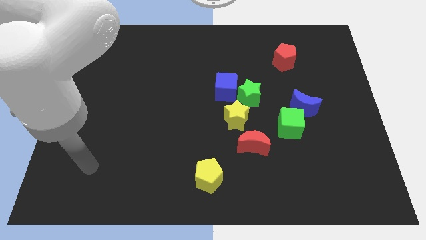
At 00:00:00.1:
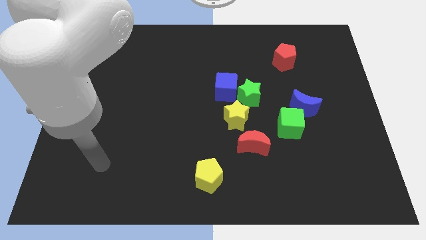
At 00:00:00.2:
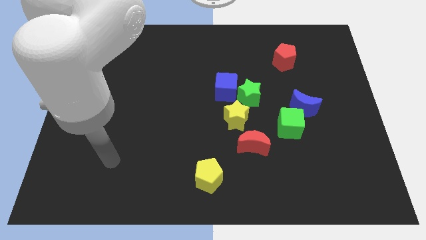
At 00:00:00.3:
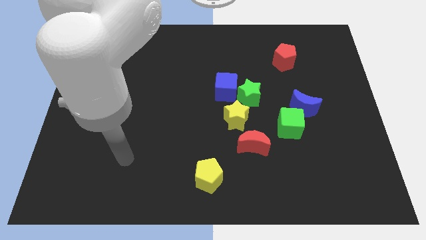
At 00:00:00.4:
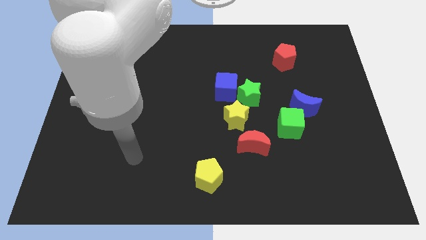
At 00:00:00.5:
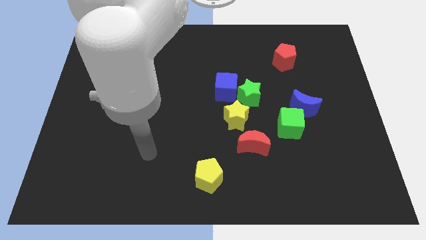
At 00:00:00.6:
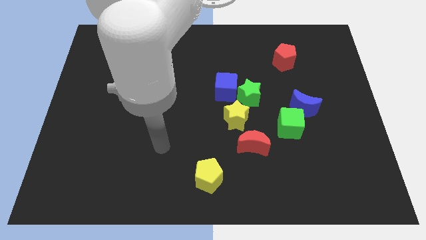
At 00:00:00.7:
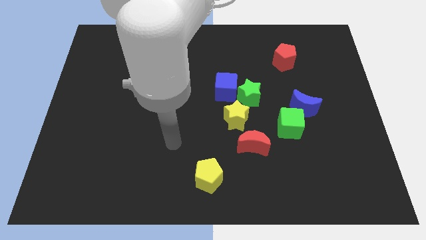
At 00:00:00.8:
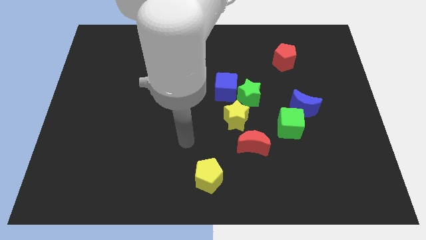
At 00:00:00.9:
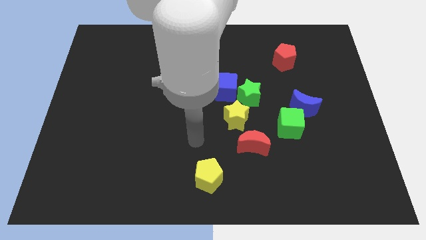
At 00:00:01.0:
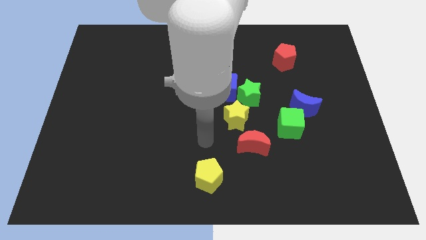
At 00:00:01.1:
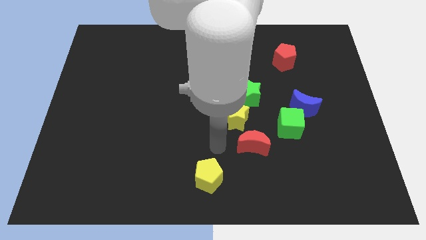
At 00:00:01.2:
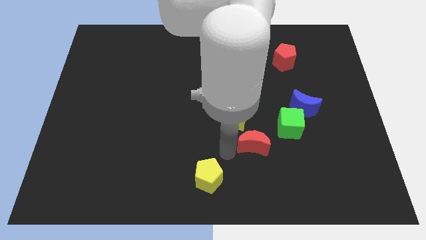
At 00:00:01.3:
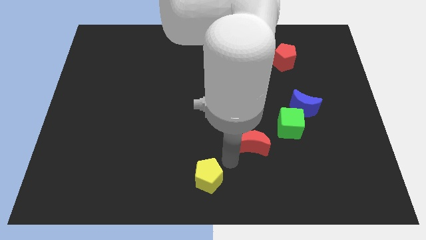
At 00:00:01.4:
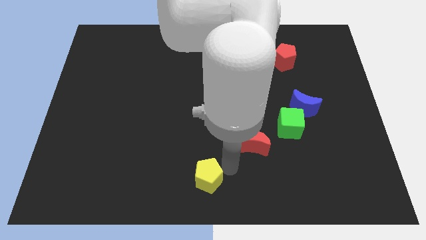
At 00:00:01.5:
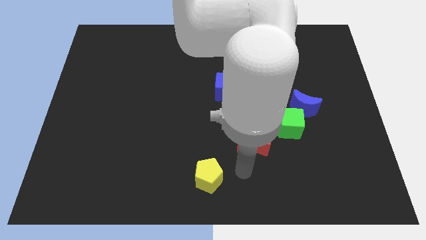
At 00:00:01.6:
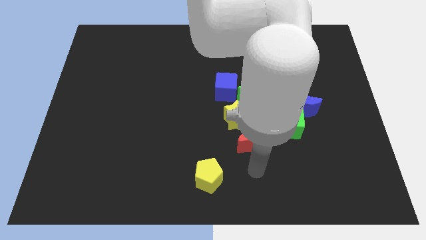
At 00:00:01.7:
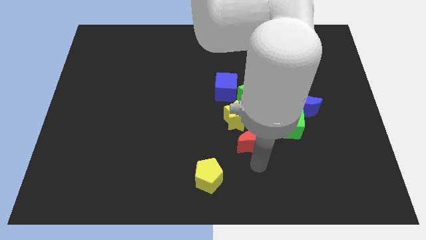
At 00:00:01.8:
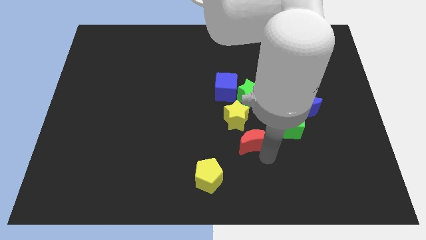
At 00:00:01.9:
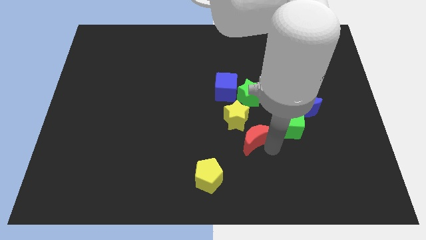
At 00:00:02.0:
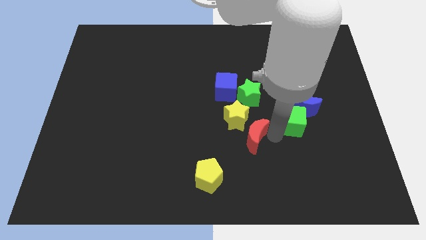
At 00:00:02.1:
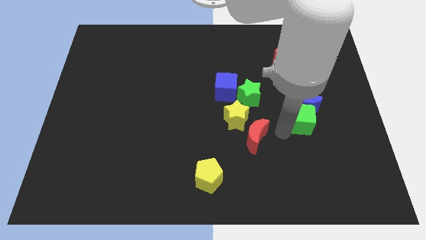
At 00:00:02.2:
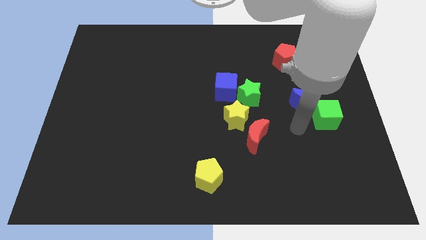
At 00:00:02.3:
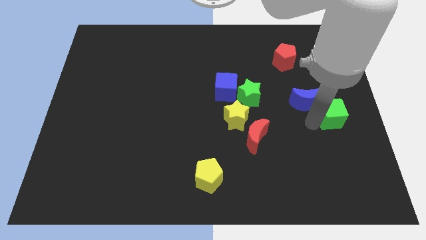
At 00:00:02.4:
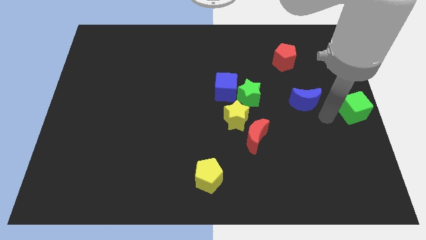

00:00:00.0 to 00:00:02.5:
separate the blue moon from the green cube

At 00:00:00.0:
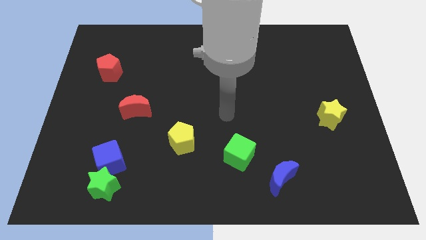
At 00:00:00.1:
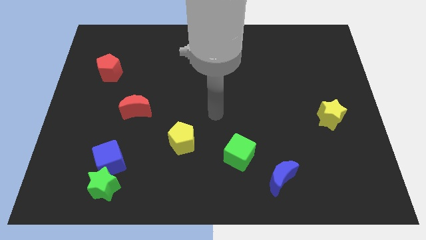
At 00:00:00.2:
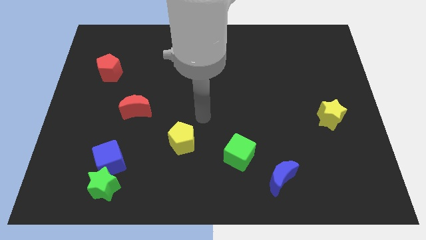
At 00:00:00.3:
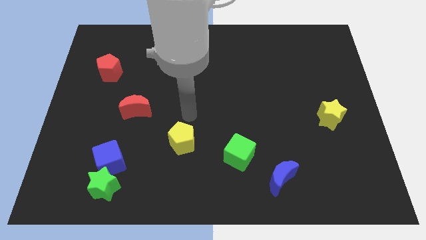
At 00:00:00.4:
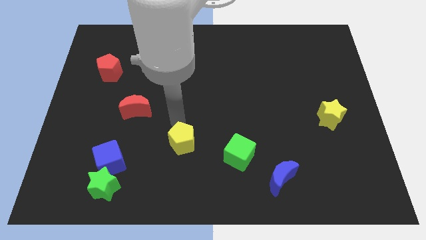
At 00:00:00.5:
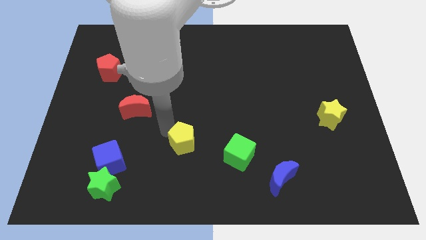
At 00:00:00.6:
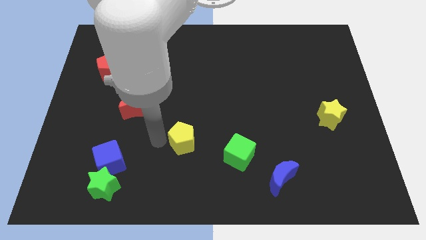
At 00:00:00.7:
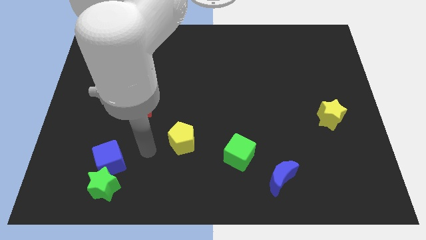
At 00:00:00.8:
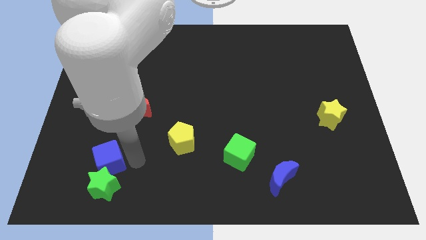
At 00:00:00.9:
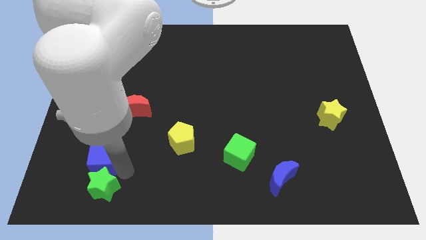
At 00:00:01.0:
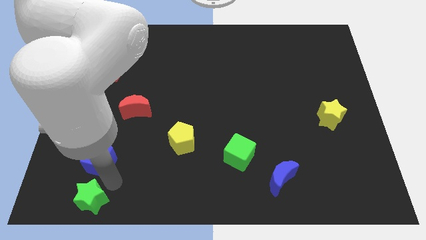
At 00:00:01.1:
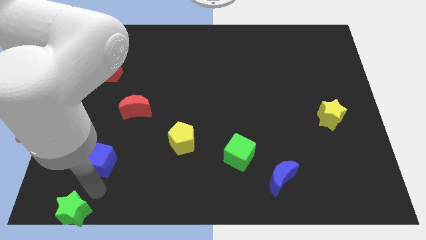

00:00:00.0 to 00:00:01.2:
move the blue cube away from the green star

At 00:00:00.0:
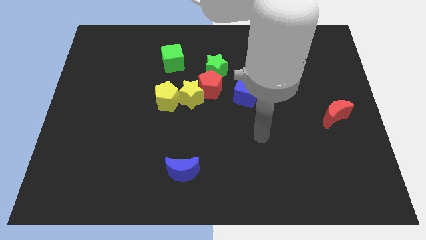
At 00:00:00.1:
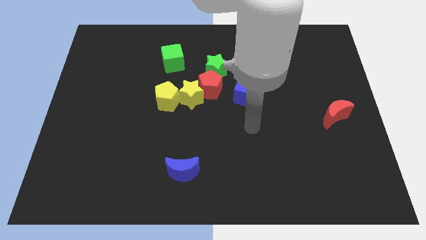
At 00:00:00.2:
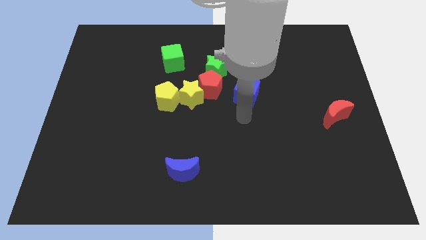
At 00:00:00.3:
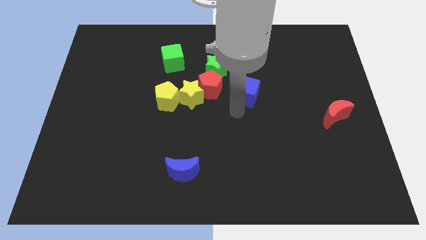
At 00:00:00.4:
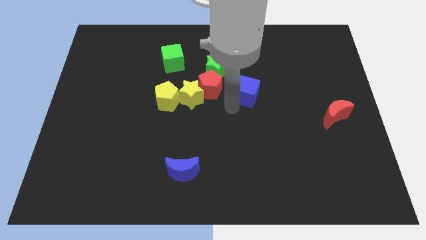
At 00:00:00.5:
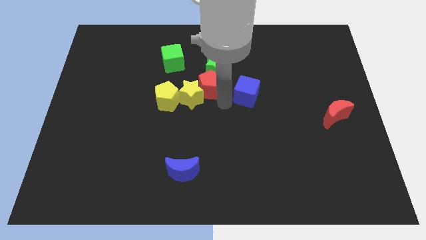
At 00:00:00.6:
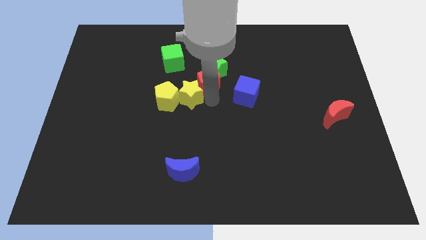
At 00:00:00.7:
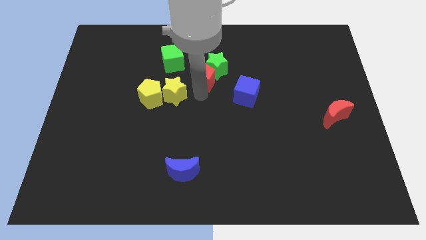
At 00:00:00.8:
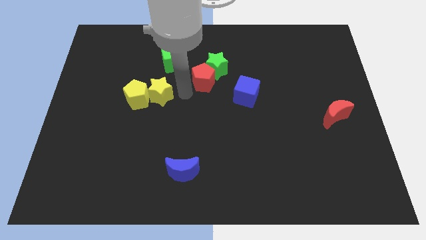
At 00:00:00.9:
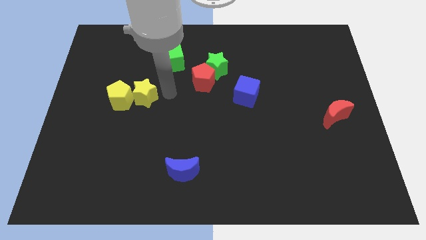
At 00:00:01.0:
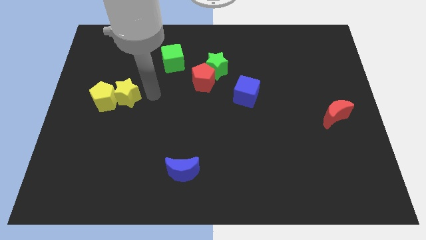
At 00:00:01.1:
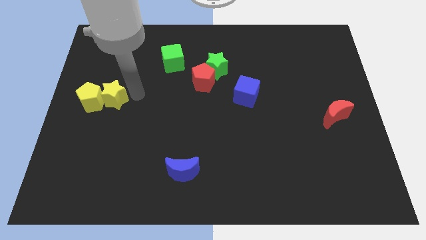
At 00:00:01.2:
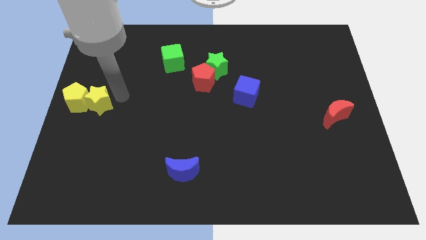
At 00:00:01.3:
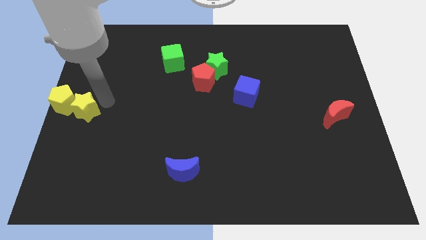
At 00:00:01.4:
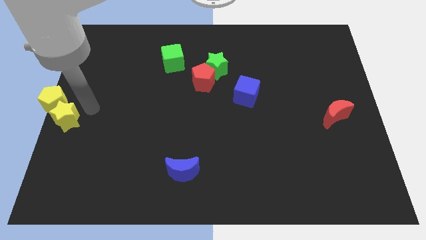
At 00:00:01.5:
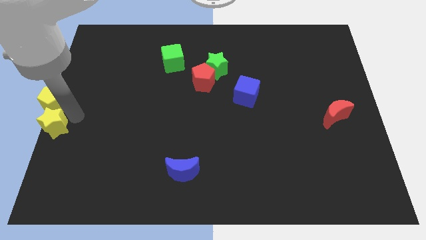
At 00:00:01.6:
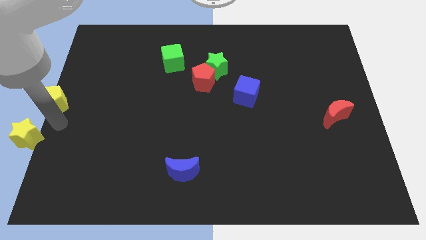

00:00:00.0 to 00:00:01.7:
separate the yellow pentagon from the yellow star

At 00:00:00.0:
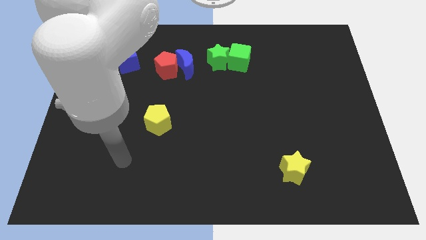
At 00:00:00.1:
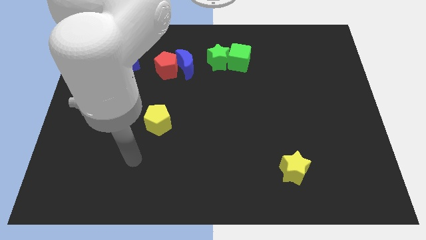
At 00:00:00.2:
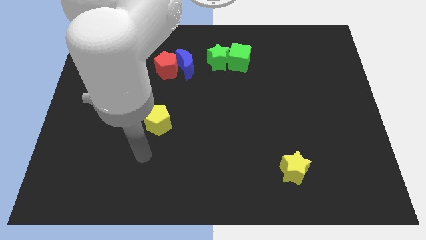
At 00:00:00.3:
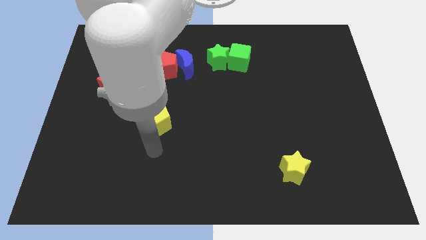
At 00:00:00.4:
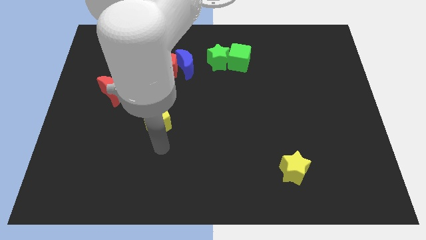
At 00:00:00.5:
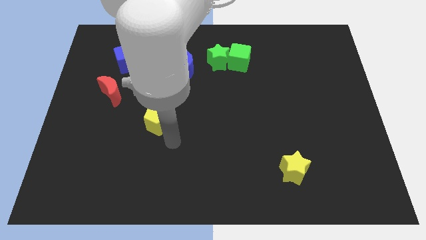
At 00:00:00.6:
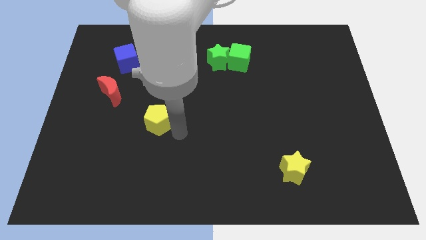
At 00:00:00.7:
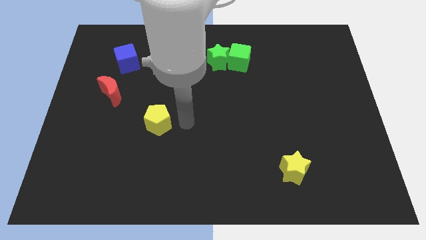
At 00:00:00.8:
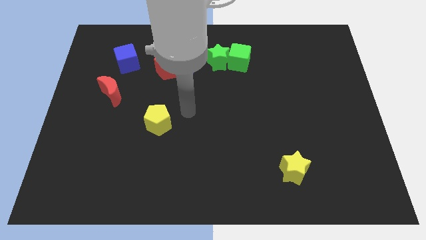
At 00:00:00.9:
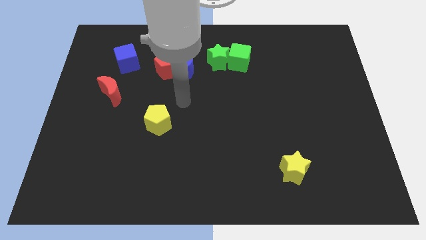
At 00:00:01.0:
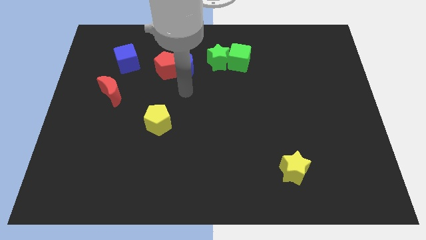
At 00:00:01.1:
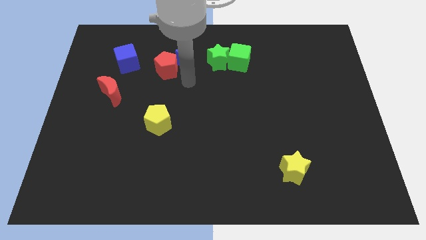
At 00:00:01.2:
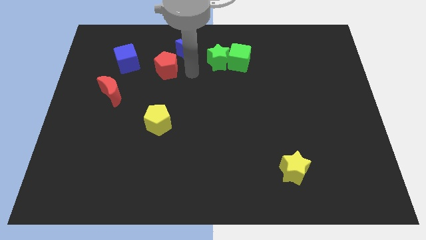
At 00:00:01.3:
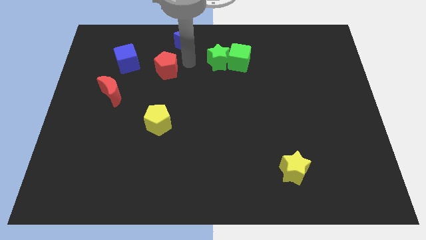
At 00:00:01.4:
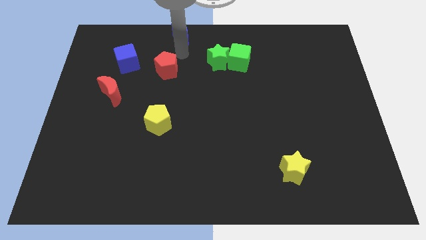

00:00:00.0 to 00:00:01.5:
pull the red pentagon apart from the blue moon

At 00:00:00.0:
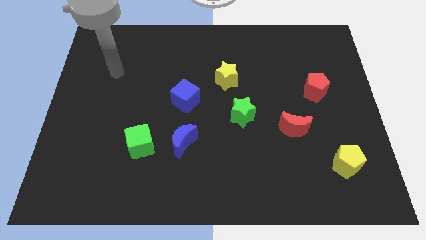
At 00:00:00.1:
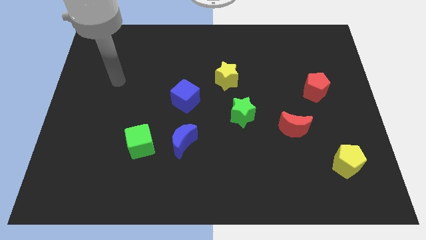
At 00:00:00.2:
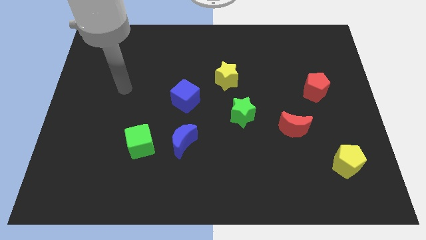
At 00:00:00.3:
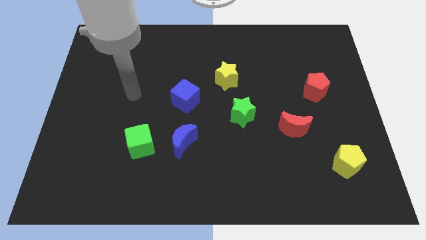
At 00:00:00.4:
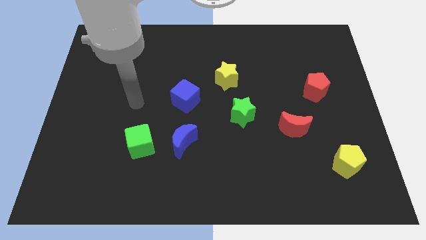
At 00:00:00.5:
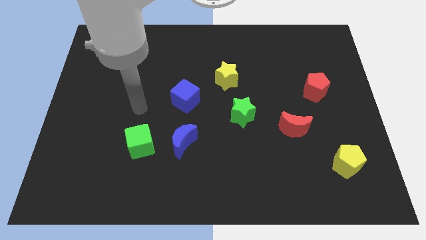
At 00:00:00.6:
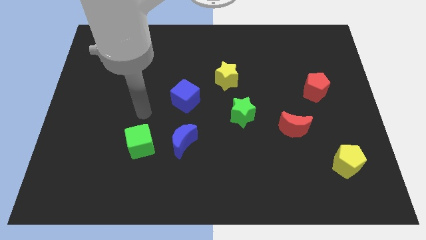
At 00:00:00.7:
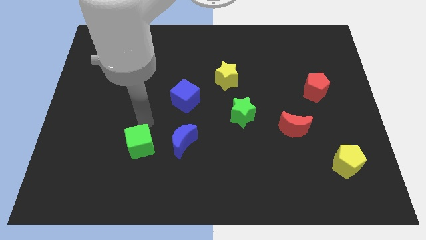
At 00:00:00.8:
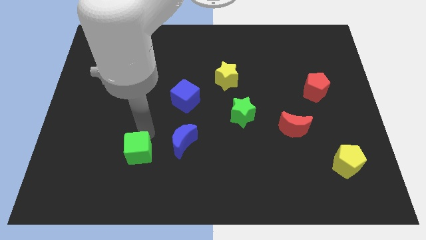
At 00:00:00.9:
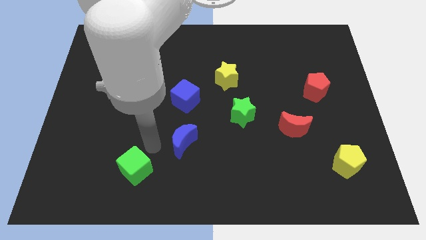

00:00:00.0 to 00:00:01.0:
pull the blue moon apart from the green cube

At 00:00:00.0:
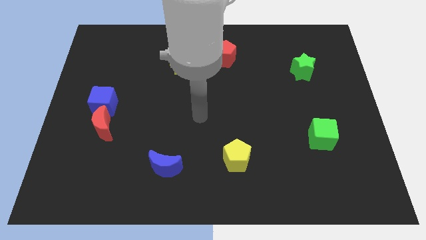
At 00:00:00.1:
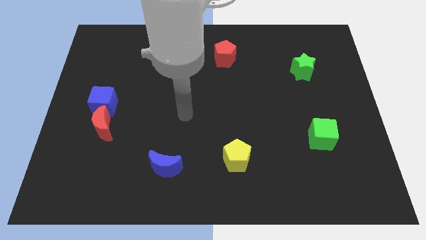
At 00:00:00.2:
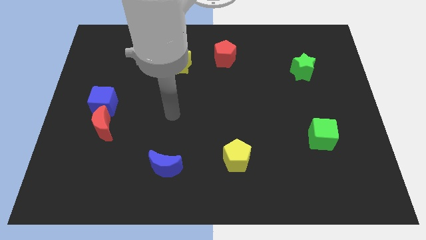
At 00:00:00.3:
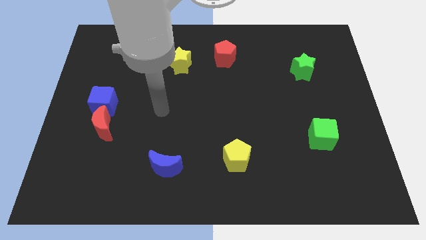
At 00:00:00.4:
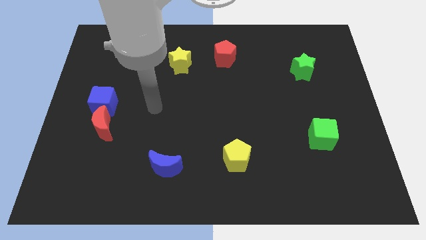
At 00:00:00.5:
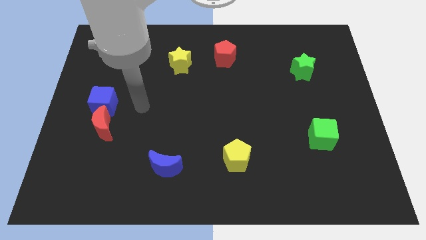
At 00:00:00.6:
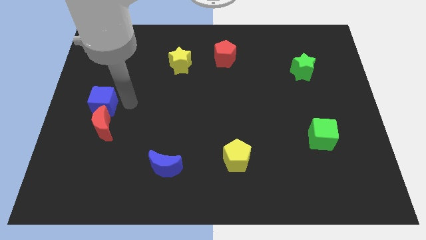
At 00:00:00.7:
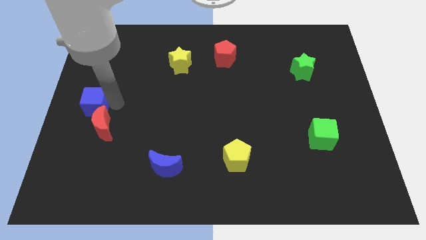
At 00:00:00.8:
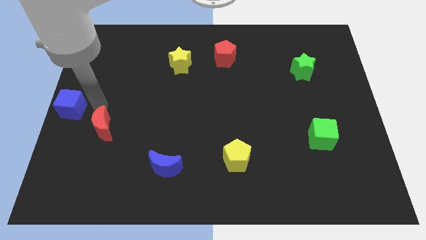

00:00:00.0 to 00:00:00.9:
separate the red moon from the blue cube

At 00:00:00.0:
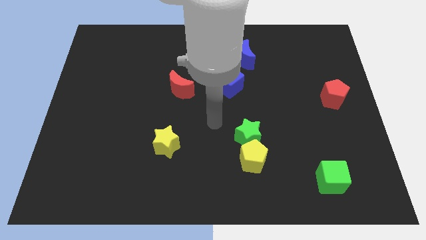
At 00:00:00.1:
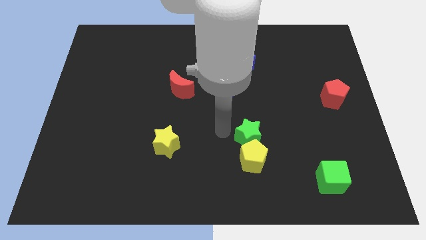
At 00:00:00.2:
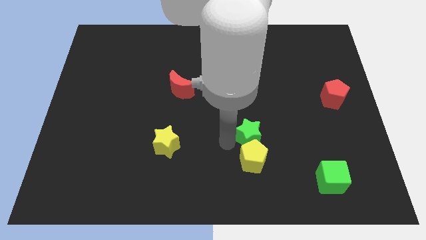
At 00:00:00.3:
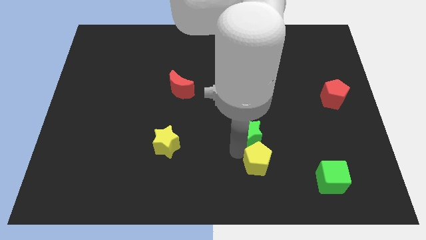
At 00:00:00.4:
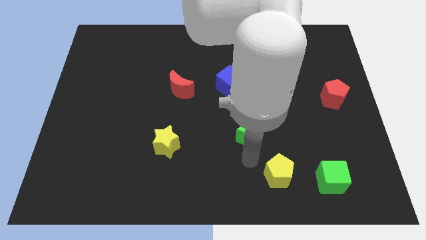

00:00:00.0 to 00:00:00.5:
pull the green star apart from the yellow pentagon
